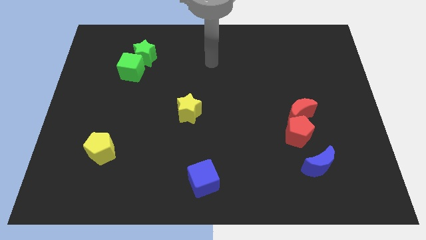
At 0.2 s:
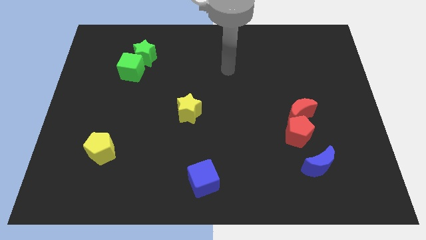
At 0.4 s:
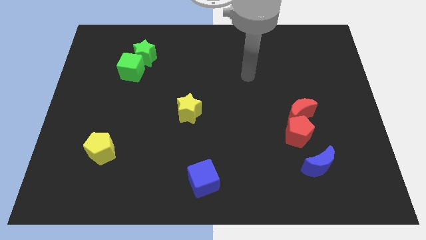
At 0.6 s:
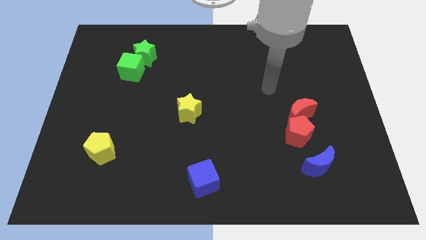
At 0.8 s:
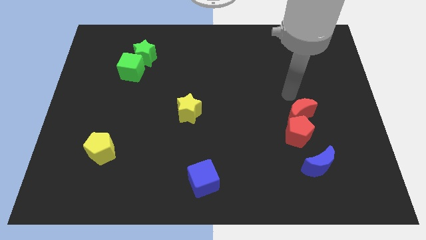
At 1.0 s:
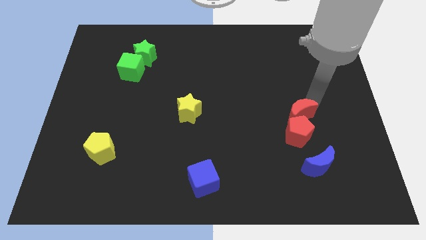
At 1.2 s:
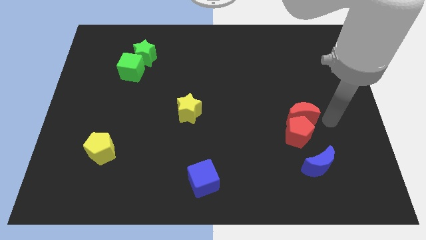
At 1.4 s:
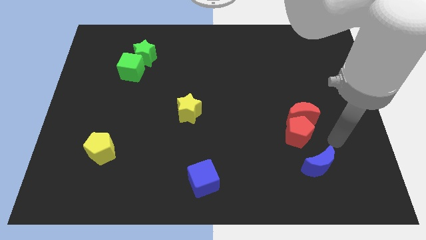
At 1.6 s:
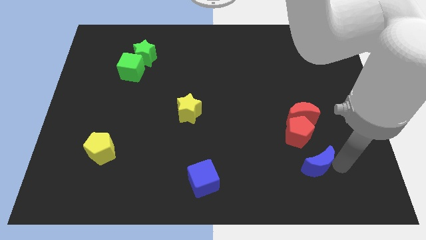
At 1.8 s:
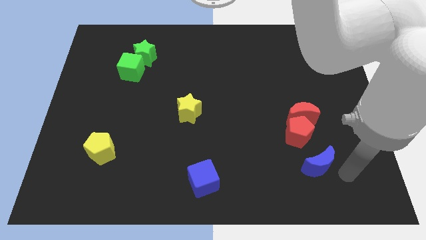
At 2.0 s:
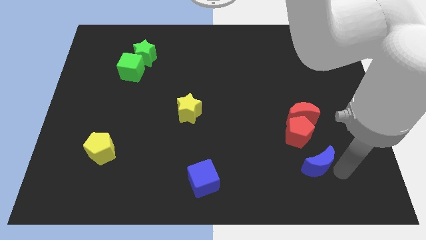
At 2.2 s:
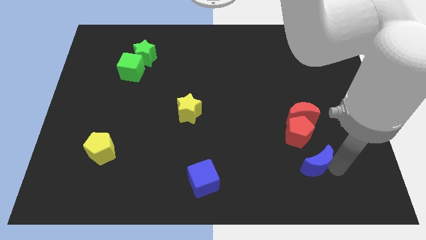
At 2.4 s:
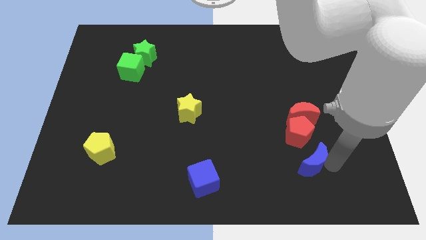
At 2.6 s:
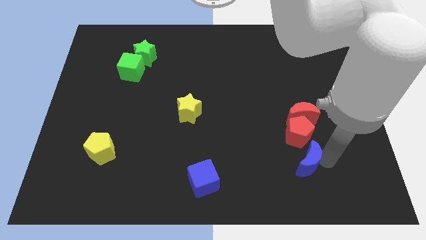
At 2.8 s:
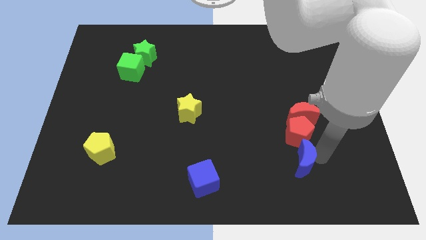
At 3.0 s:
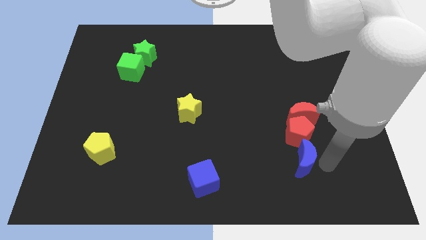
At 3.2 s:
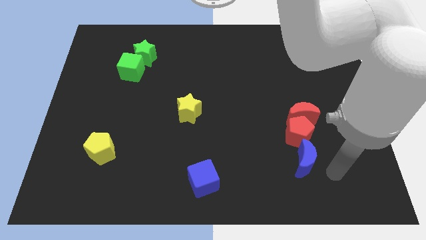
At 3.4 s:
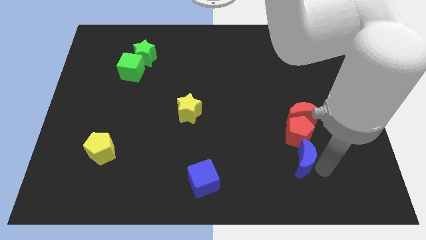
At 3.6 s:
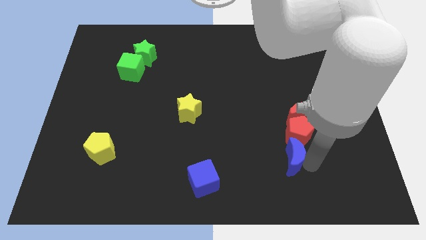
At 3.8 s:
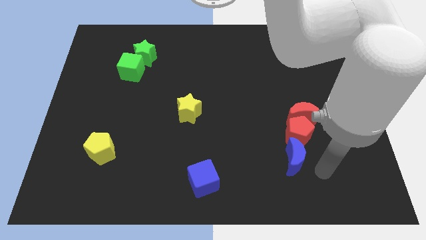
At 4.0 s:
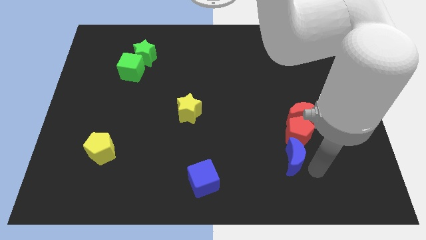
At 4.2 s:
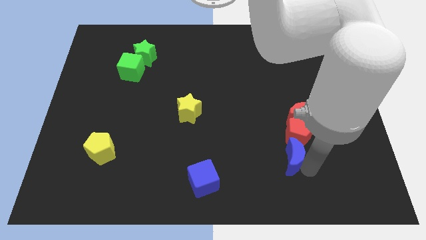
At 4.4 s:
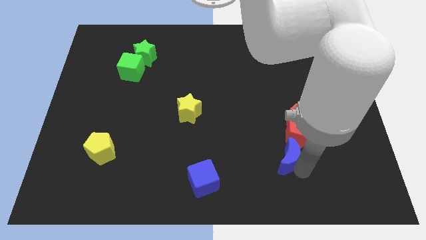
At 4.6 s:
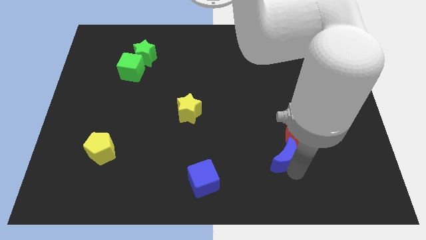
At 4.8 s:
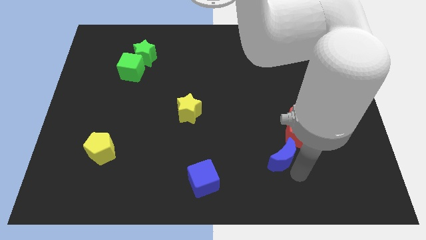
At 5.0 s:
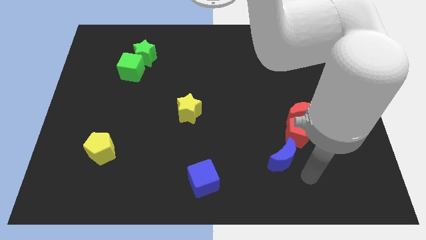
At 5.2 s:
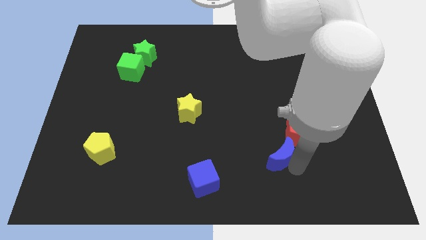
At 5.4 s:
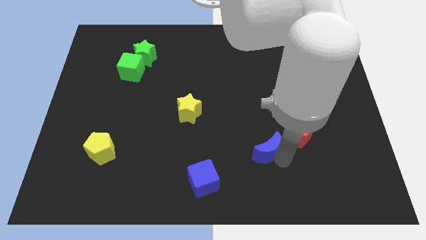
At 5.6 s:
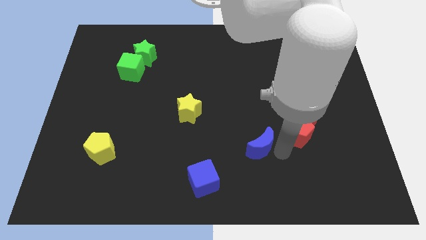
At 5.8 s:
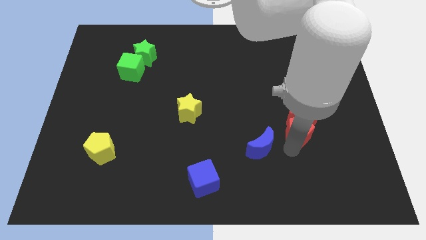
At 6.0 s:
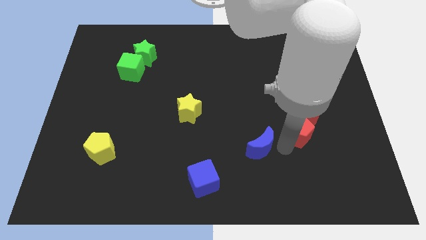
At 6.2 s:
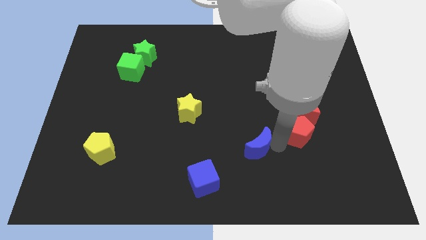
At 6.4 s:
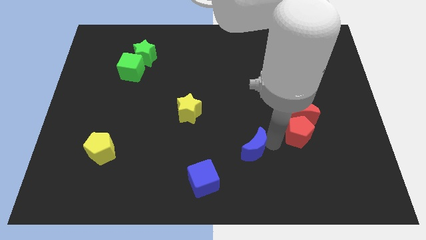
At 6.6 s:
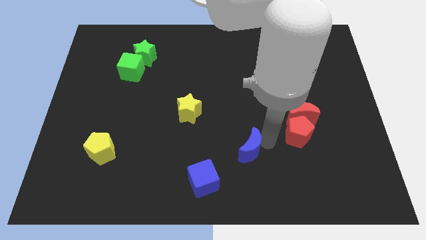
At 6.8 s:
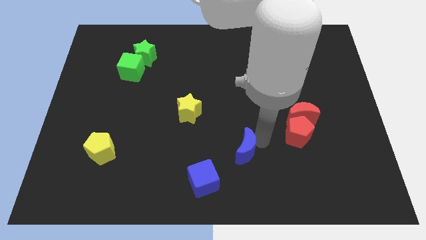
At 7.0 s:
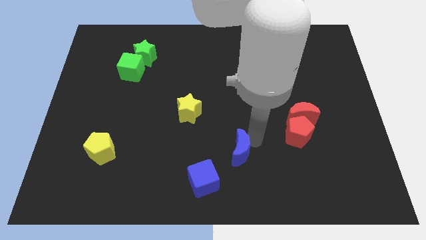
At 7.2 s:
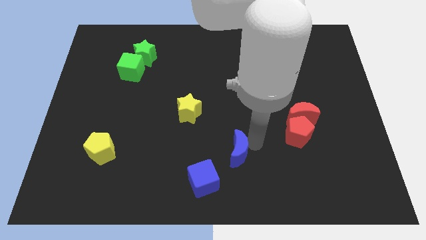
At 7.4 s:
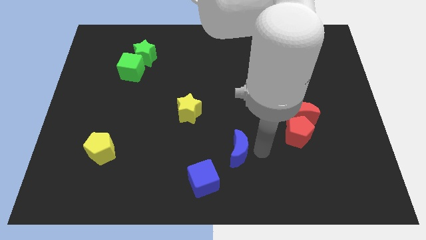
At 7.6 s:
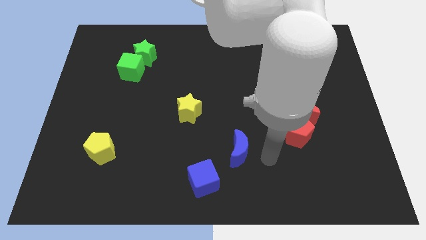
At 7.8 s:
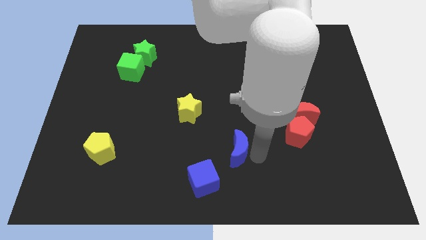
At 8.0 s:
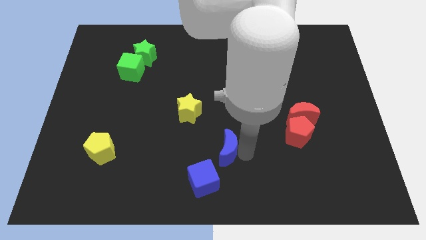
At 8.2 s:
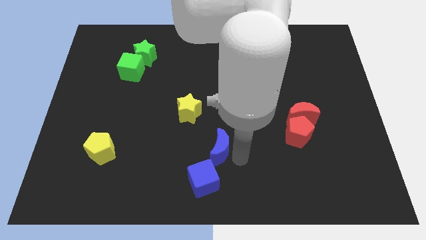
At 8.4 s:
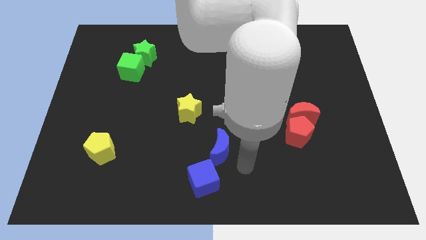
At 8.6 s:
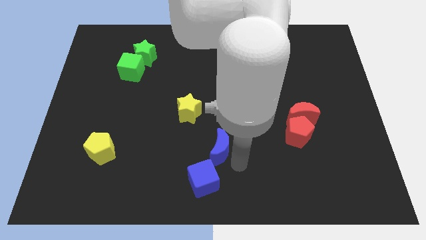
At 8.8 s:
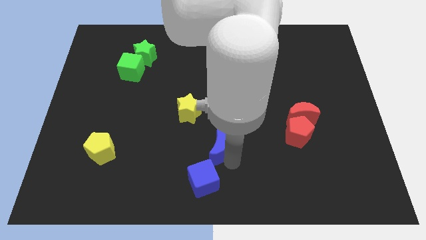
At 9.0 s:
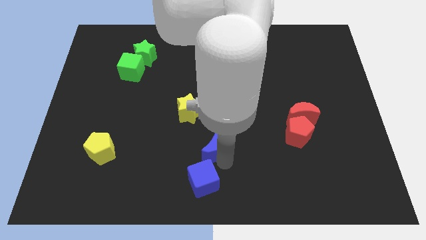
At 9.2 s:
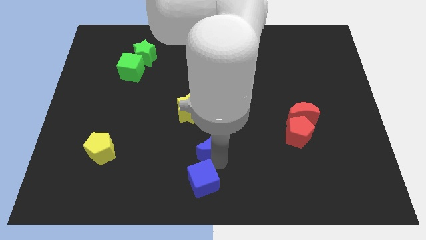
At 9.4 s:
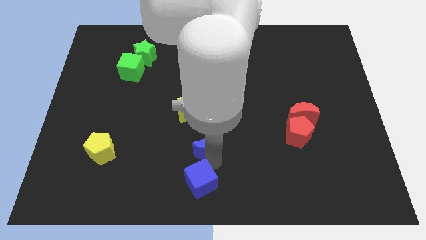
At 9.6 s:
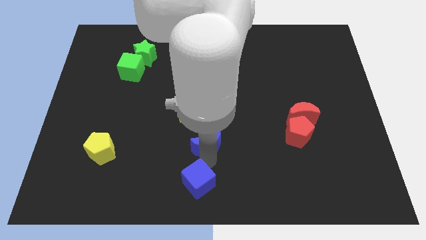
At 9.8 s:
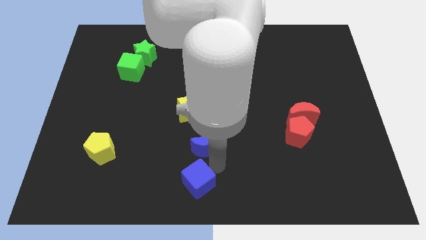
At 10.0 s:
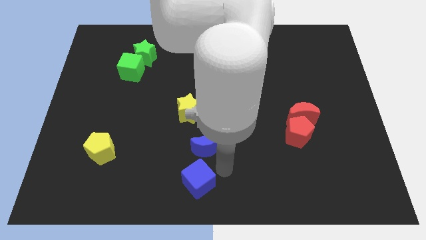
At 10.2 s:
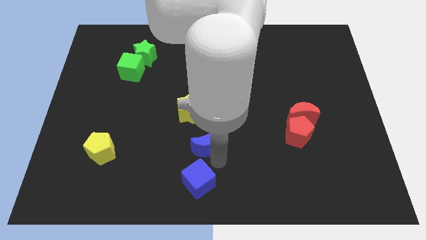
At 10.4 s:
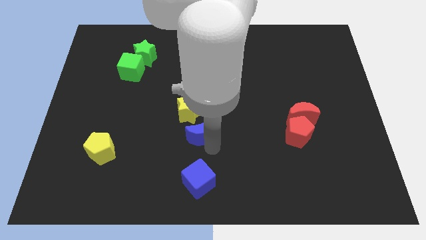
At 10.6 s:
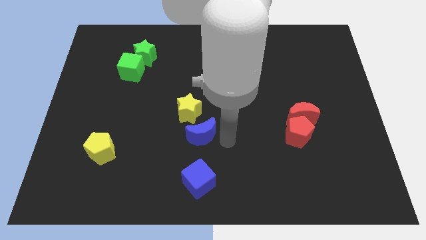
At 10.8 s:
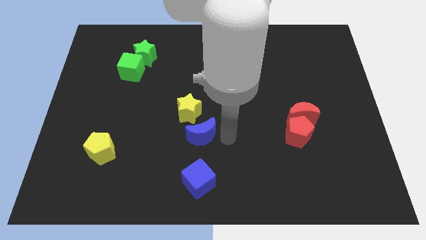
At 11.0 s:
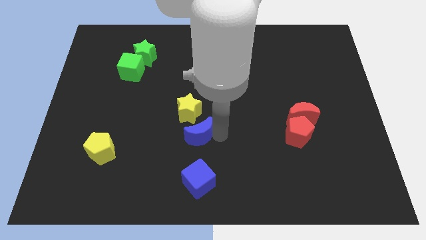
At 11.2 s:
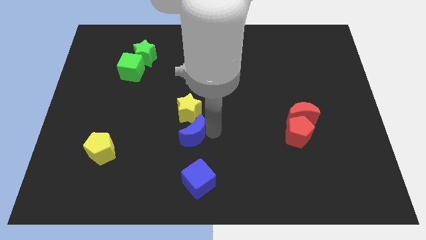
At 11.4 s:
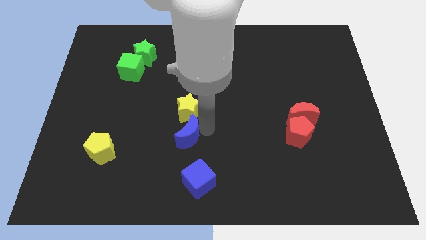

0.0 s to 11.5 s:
put the blue moon diagonally down and to the left of the yellow star
